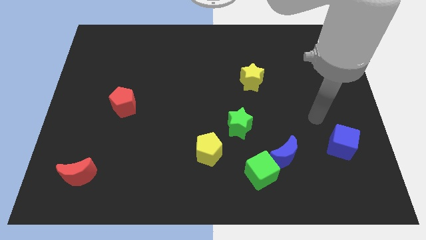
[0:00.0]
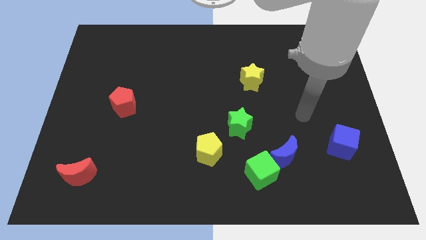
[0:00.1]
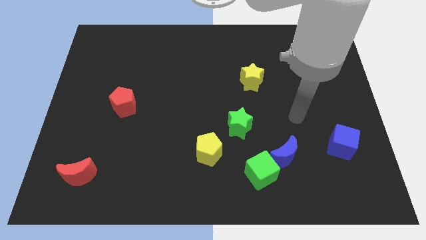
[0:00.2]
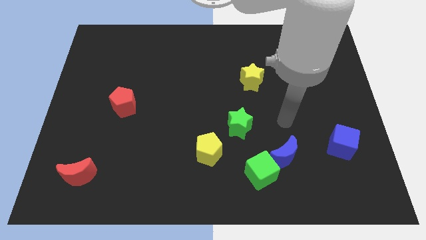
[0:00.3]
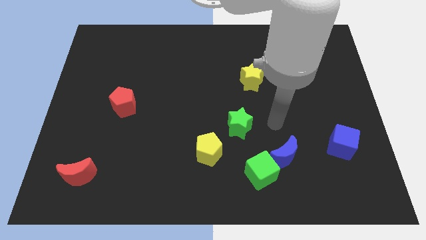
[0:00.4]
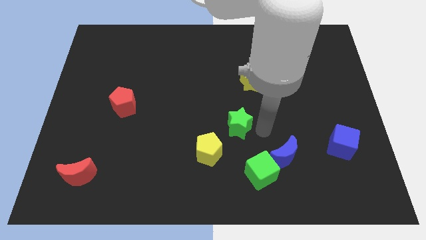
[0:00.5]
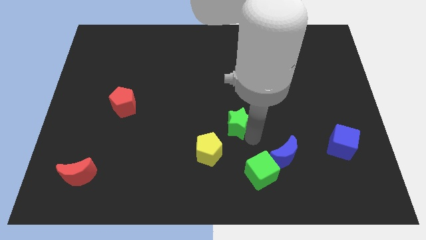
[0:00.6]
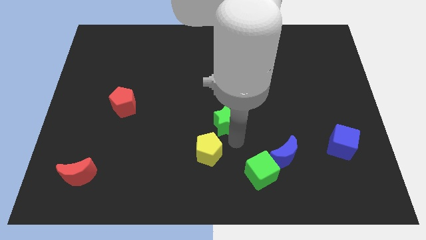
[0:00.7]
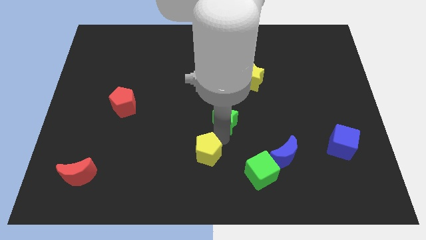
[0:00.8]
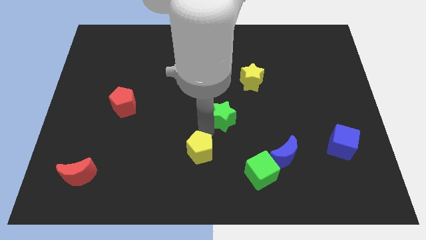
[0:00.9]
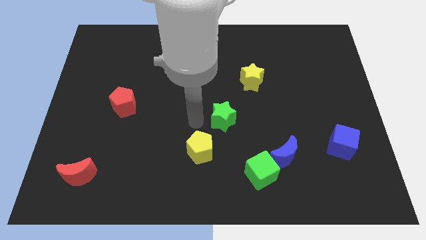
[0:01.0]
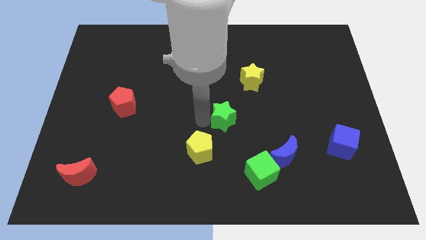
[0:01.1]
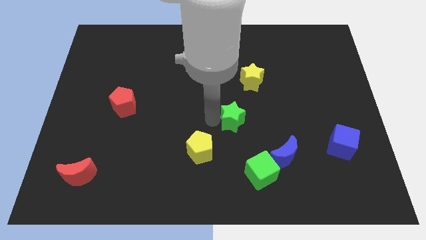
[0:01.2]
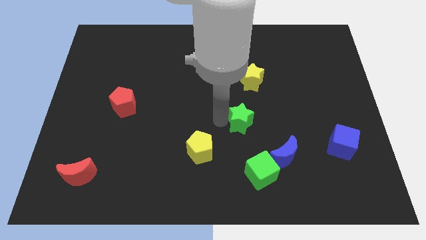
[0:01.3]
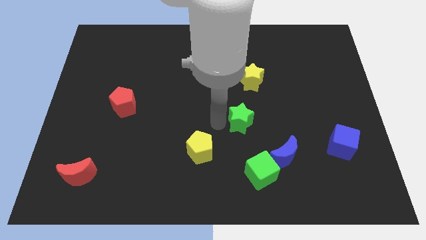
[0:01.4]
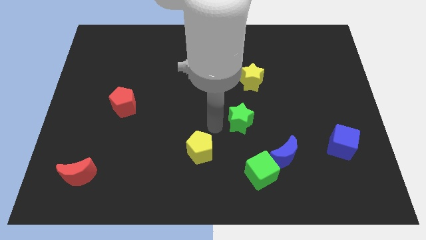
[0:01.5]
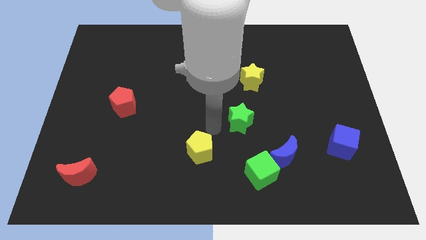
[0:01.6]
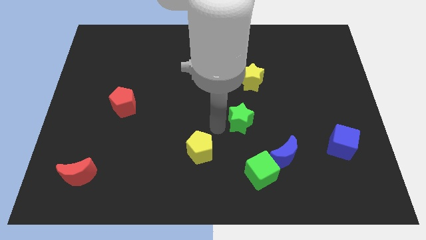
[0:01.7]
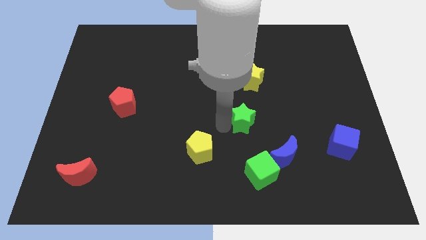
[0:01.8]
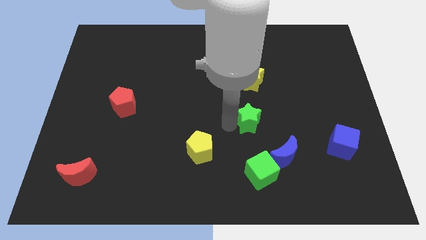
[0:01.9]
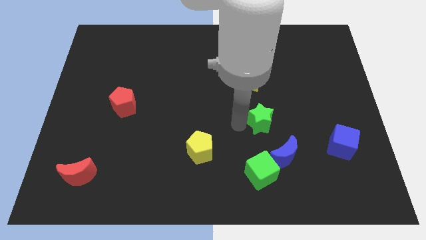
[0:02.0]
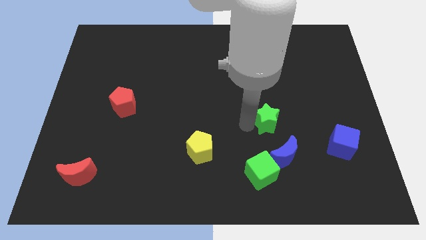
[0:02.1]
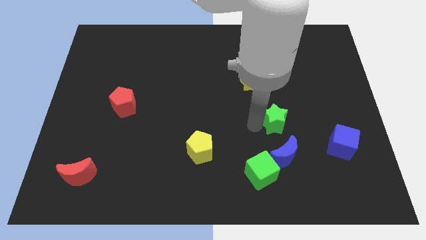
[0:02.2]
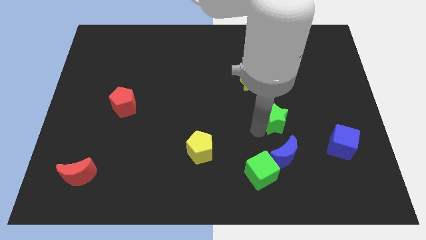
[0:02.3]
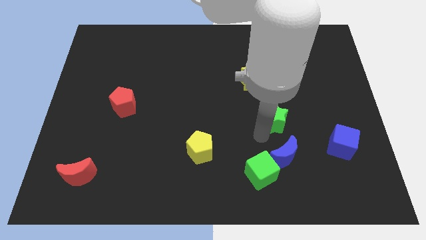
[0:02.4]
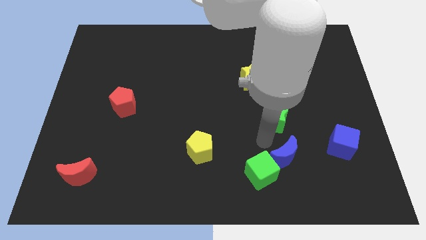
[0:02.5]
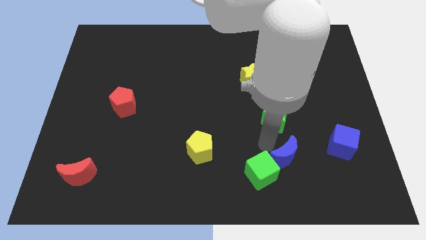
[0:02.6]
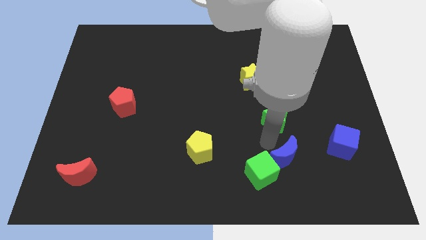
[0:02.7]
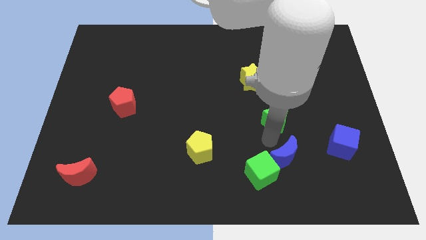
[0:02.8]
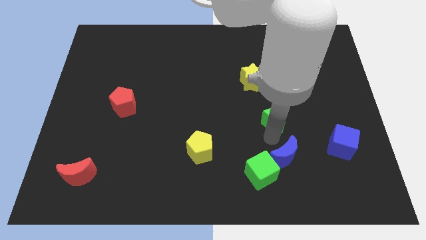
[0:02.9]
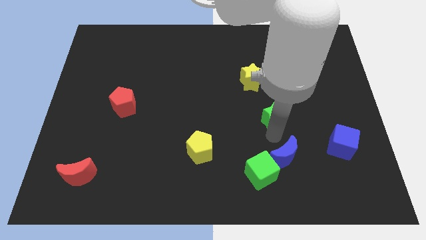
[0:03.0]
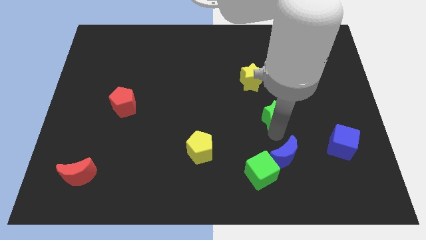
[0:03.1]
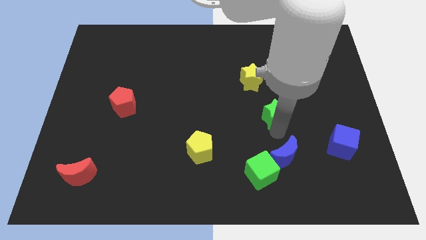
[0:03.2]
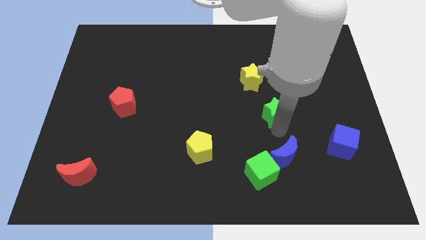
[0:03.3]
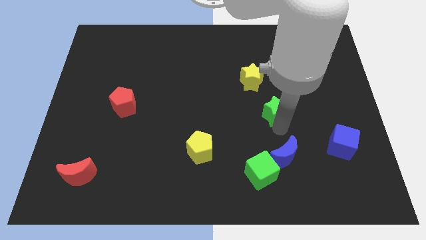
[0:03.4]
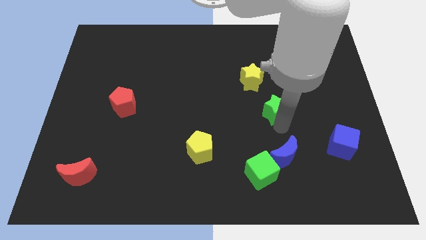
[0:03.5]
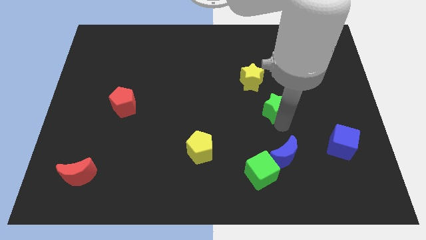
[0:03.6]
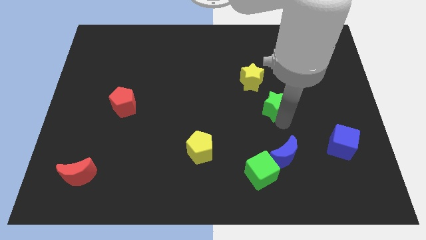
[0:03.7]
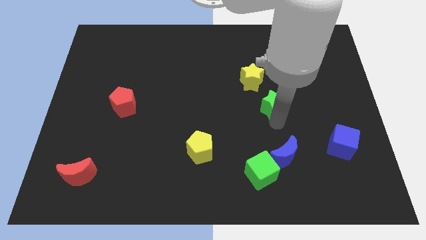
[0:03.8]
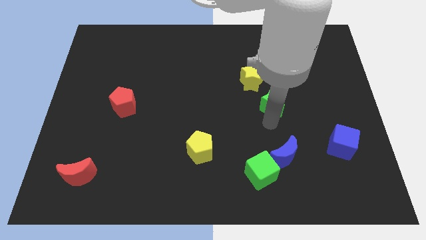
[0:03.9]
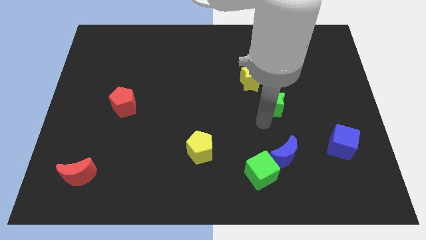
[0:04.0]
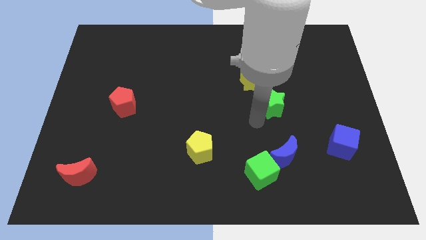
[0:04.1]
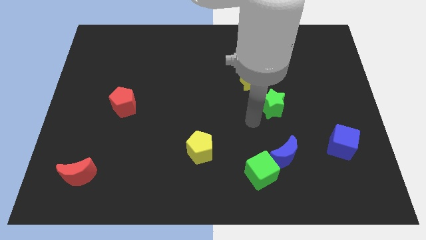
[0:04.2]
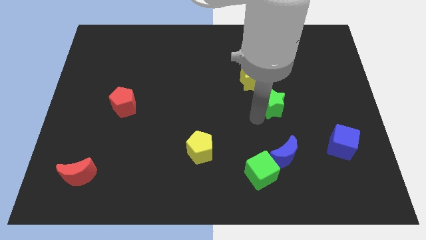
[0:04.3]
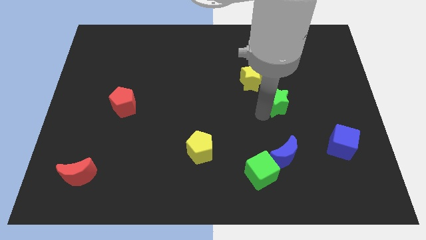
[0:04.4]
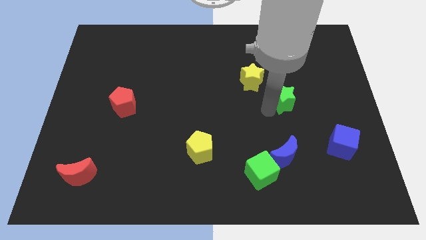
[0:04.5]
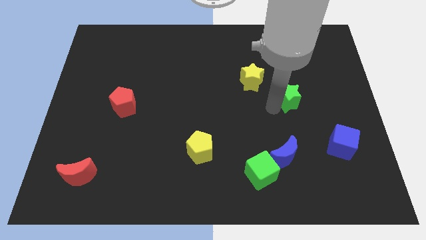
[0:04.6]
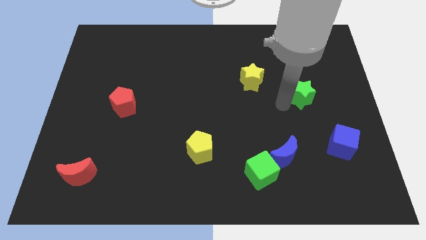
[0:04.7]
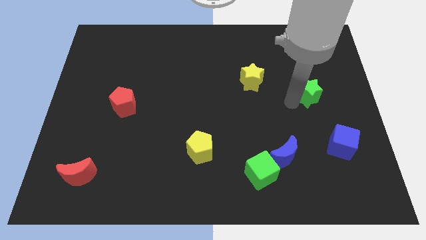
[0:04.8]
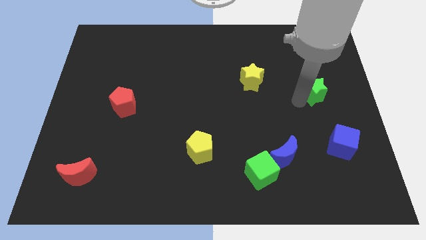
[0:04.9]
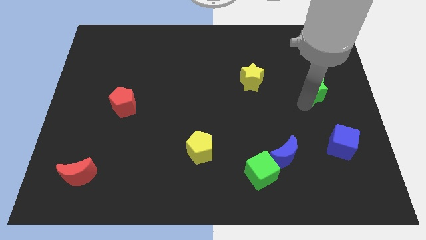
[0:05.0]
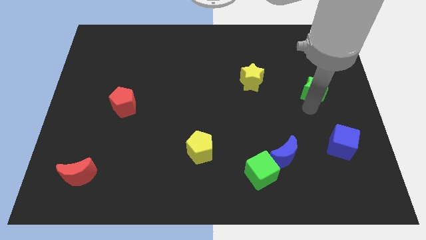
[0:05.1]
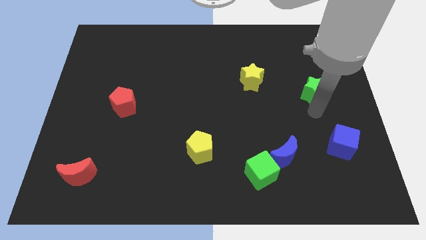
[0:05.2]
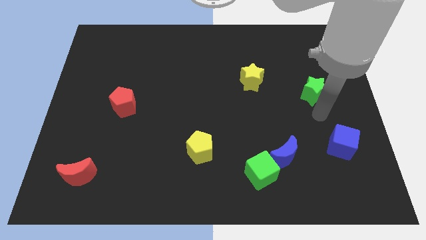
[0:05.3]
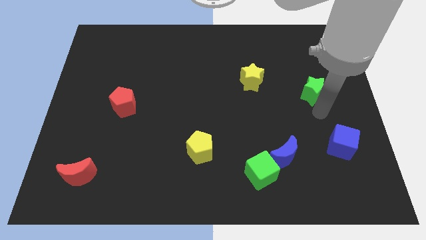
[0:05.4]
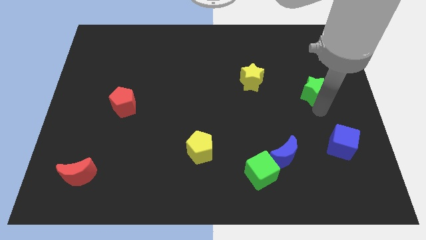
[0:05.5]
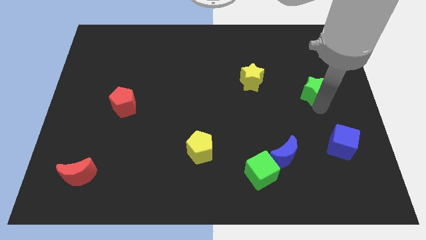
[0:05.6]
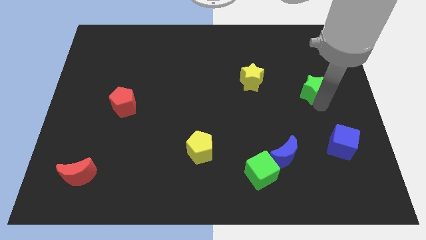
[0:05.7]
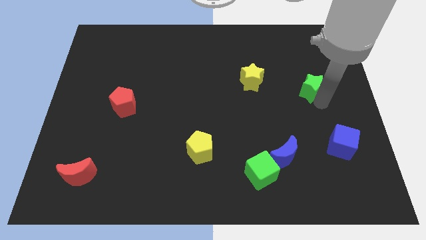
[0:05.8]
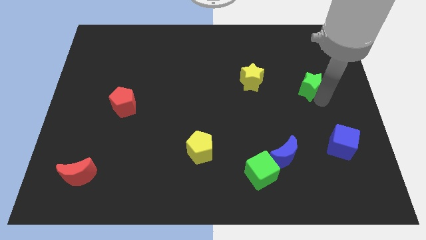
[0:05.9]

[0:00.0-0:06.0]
slide the green star up and right

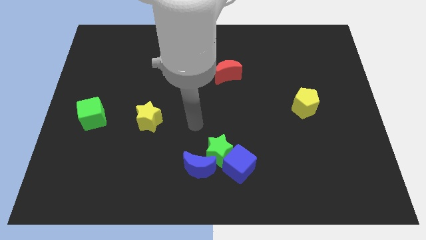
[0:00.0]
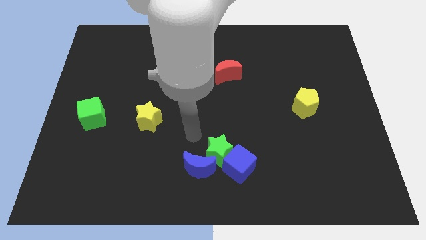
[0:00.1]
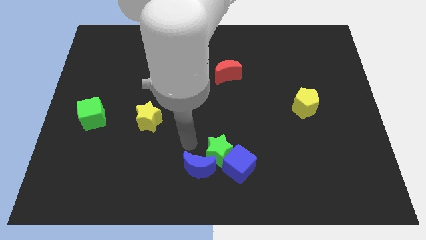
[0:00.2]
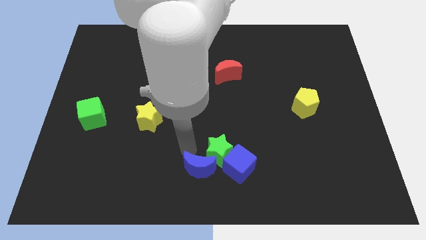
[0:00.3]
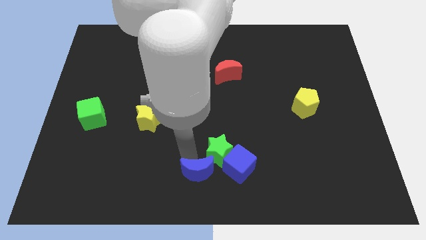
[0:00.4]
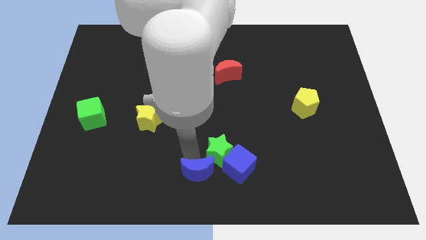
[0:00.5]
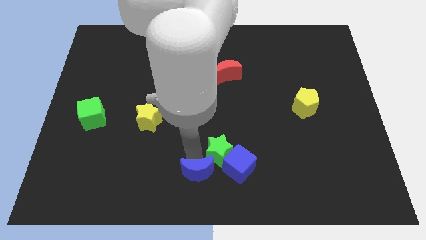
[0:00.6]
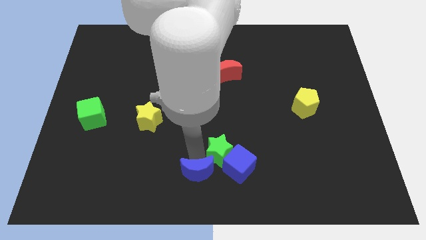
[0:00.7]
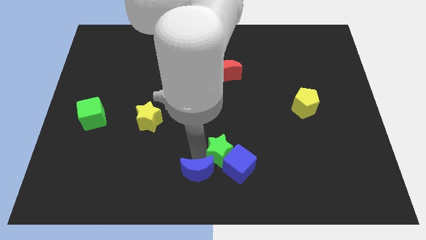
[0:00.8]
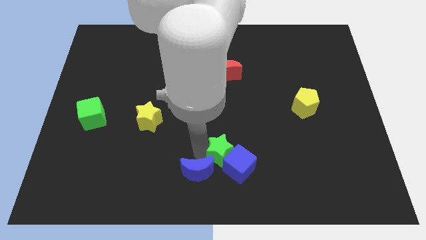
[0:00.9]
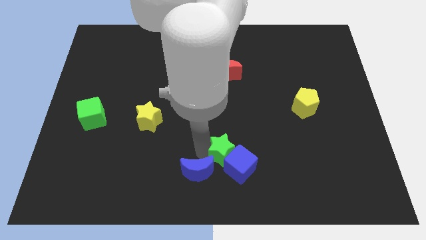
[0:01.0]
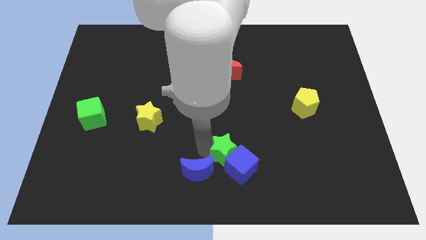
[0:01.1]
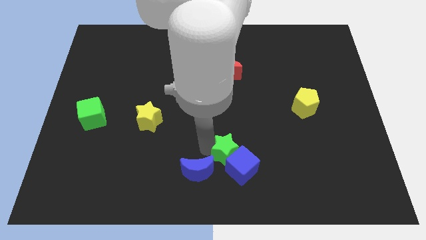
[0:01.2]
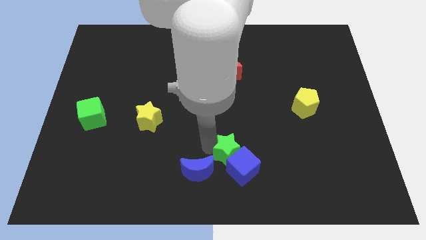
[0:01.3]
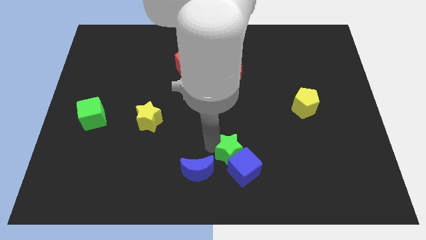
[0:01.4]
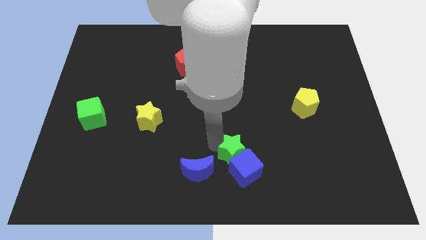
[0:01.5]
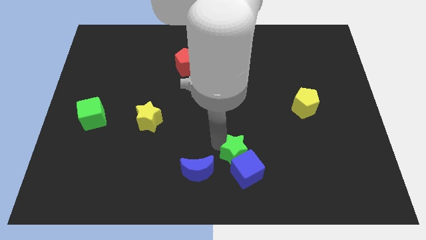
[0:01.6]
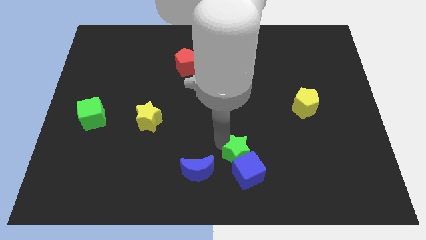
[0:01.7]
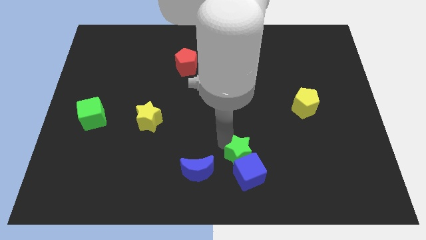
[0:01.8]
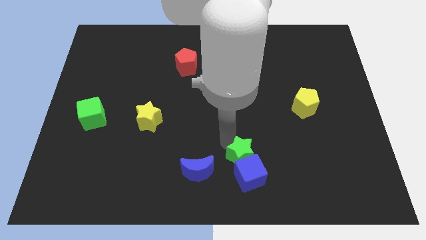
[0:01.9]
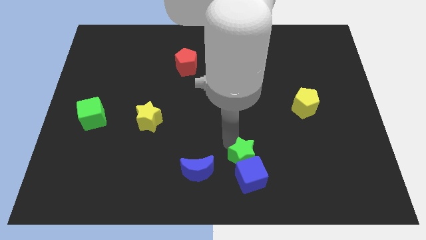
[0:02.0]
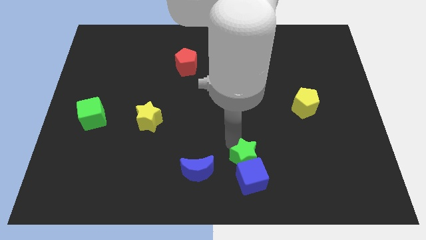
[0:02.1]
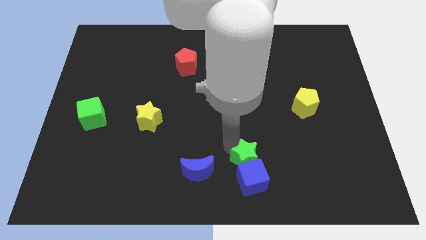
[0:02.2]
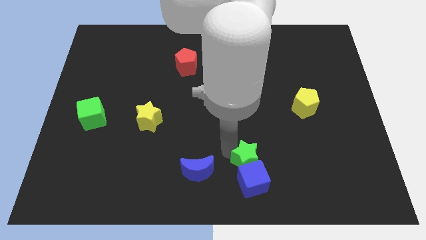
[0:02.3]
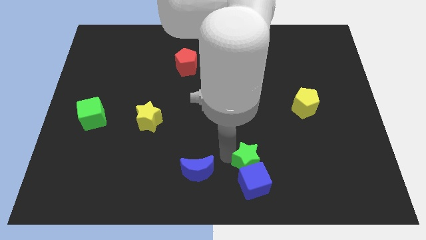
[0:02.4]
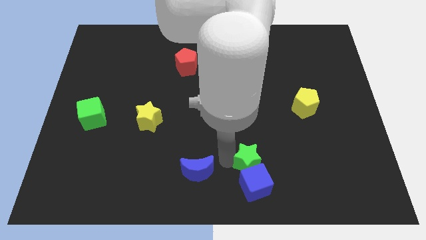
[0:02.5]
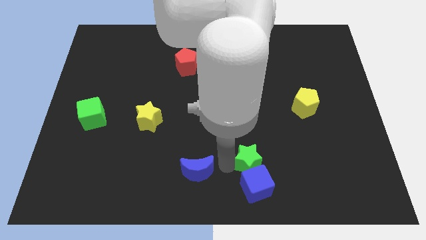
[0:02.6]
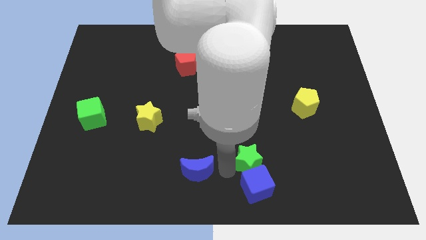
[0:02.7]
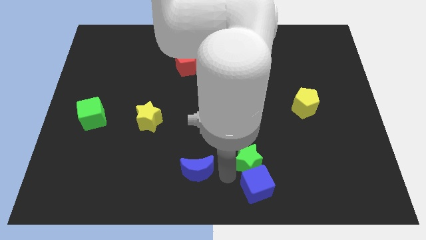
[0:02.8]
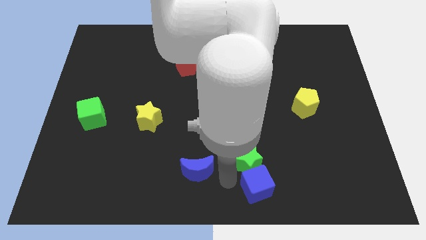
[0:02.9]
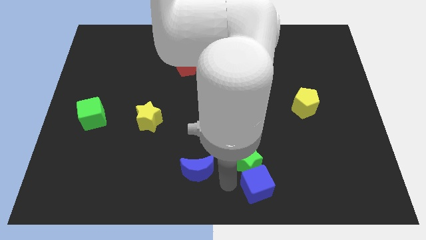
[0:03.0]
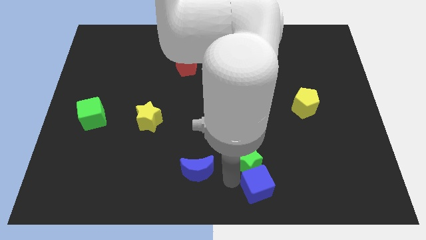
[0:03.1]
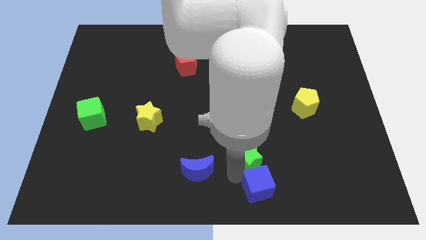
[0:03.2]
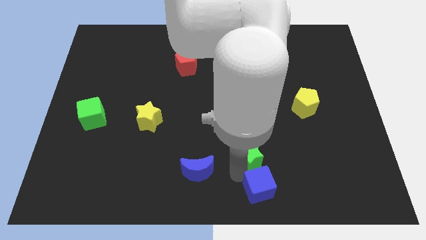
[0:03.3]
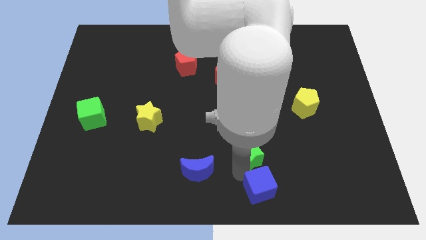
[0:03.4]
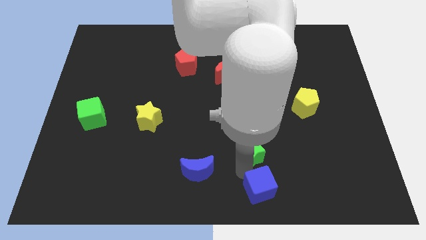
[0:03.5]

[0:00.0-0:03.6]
slide the green star to the right a little bit
